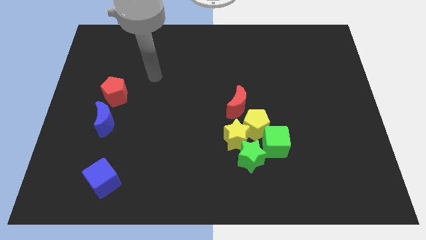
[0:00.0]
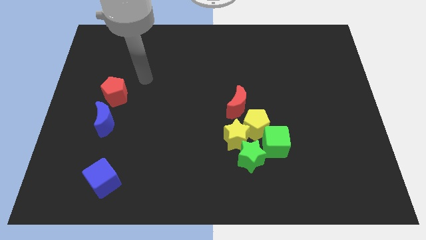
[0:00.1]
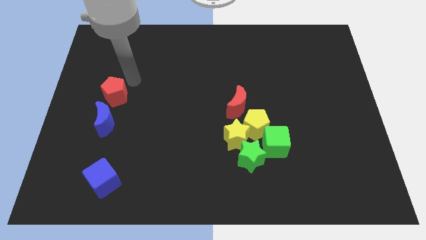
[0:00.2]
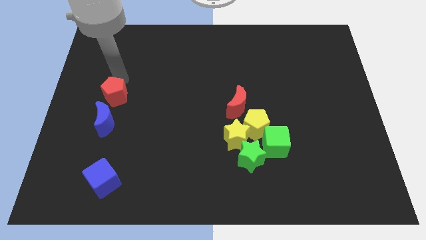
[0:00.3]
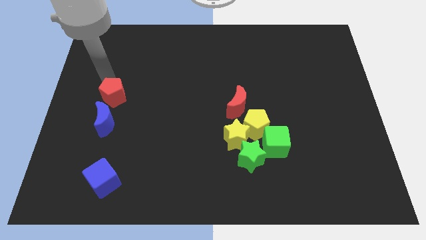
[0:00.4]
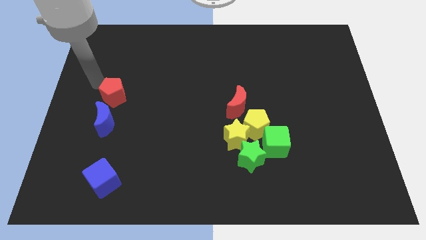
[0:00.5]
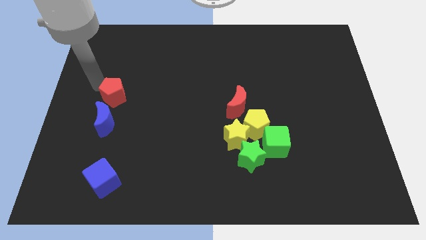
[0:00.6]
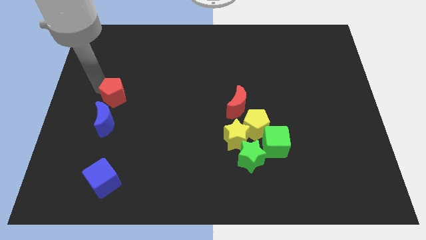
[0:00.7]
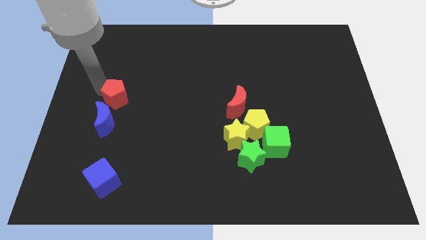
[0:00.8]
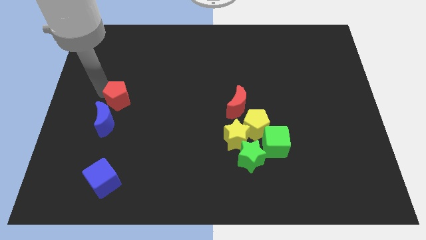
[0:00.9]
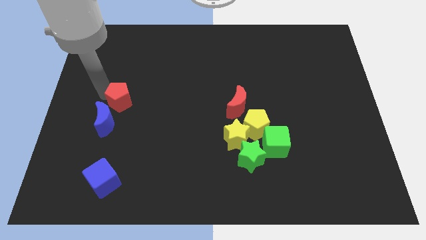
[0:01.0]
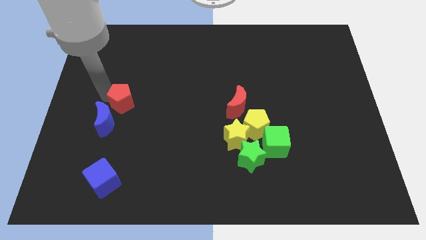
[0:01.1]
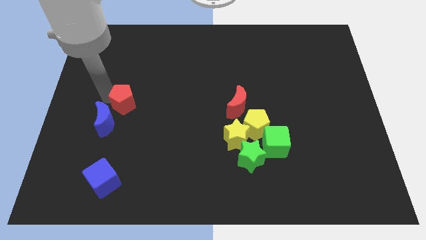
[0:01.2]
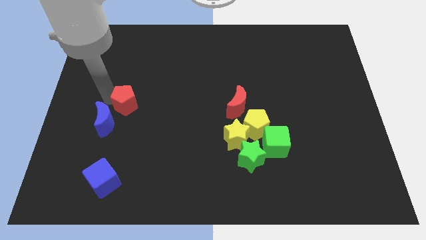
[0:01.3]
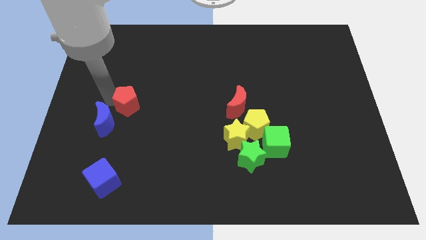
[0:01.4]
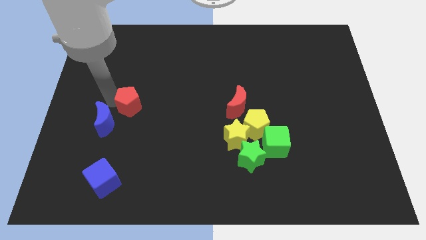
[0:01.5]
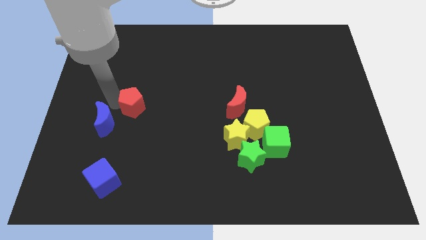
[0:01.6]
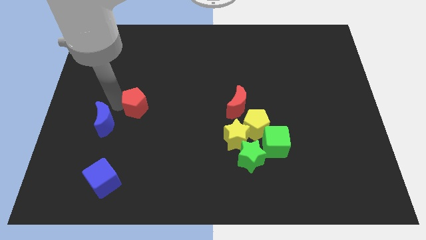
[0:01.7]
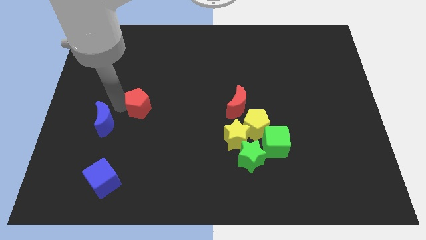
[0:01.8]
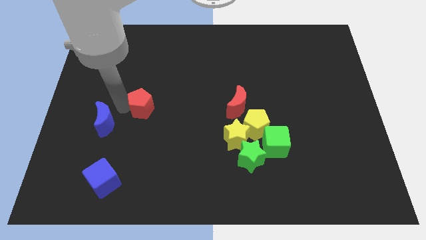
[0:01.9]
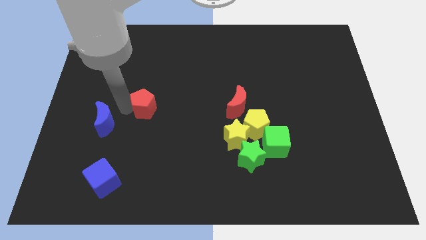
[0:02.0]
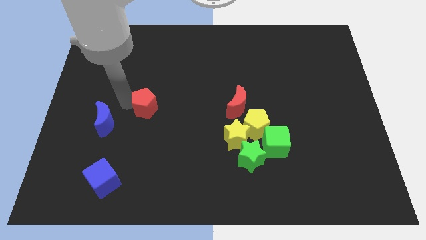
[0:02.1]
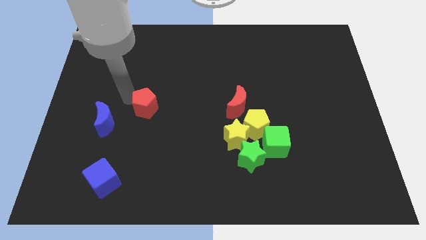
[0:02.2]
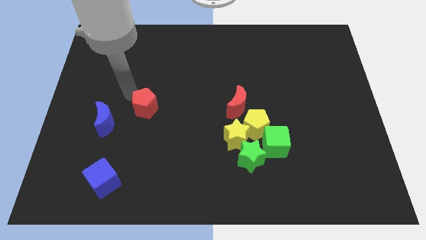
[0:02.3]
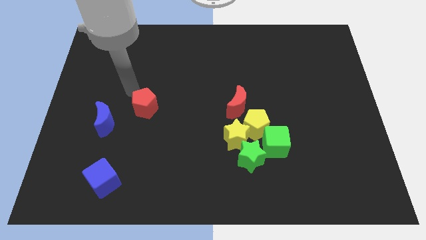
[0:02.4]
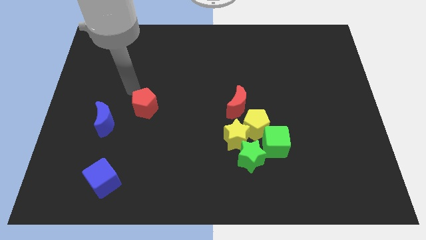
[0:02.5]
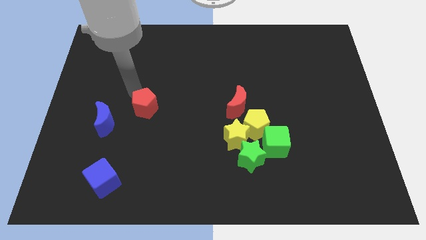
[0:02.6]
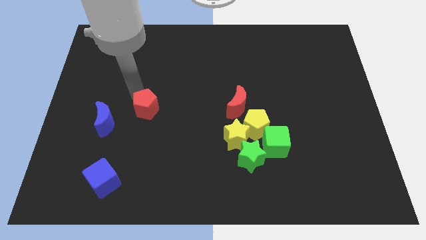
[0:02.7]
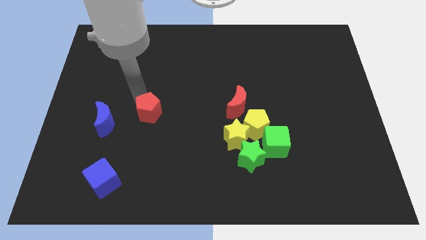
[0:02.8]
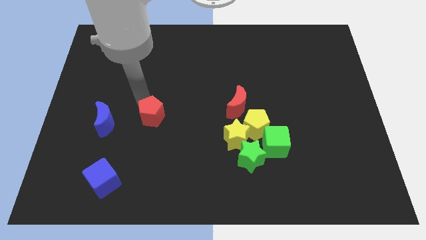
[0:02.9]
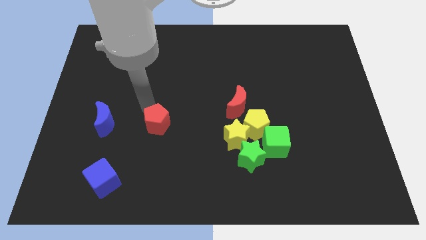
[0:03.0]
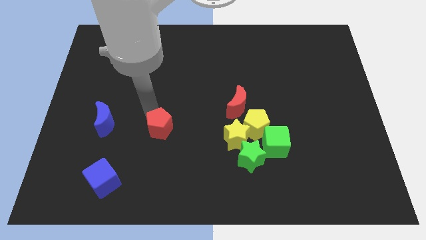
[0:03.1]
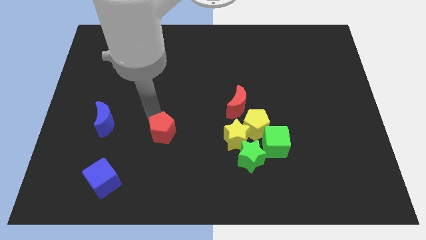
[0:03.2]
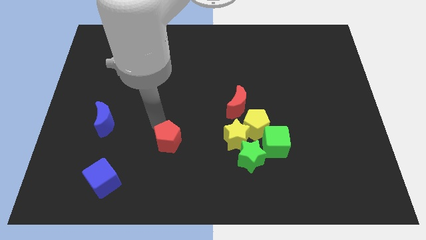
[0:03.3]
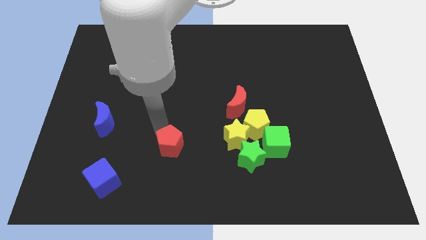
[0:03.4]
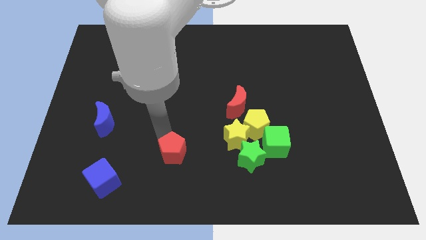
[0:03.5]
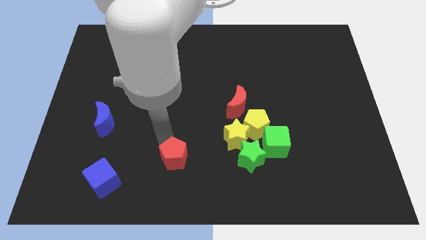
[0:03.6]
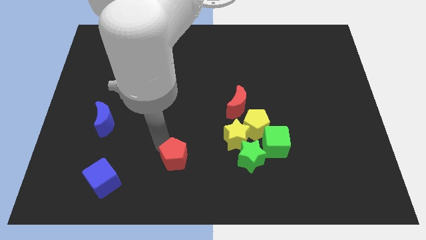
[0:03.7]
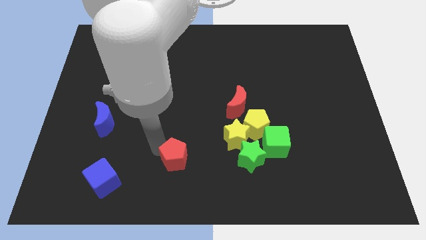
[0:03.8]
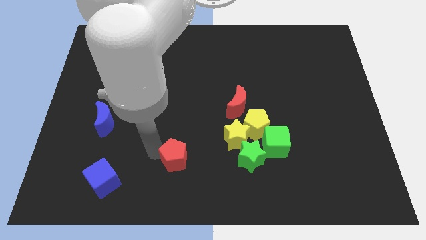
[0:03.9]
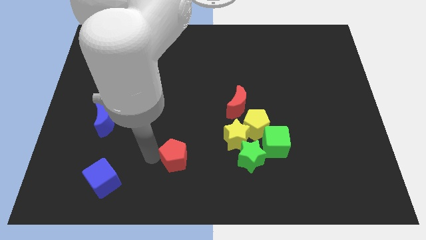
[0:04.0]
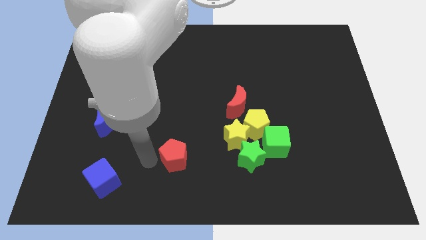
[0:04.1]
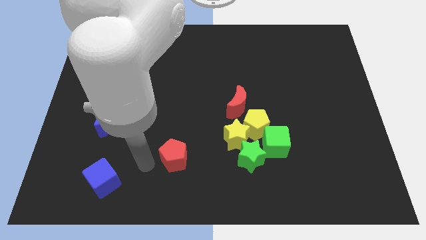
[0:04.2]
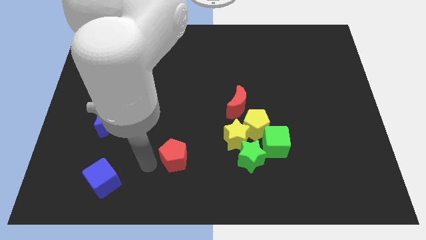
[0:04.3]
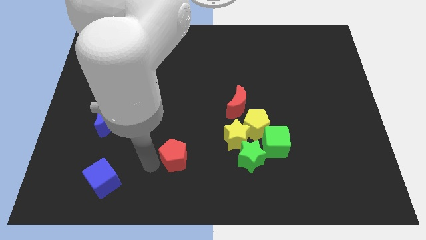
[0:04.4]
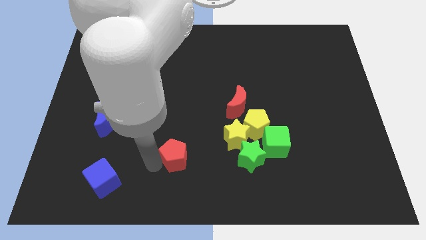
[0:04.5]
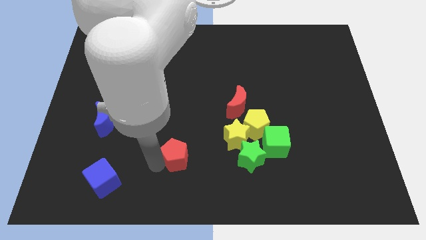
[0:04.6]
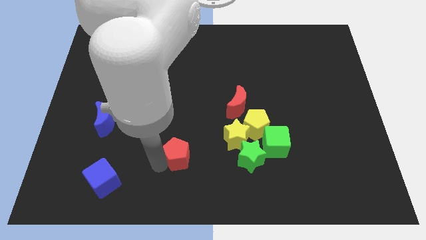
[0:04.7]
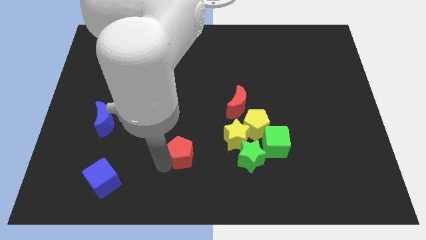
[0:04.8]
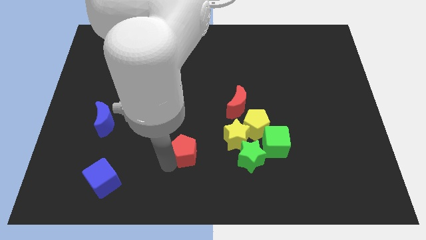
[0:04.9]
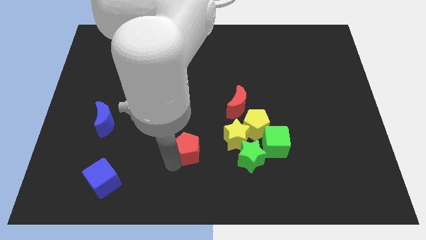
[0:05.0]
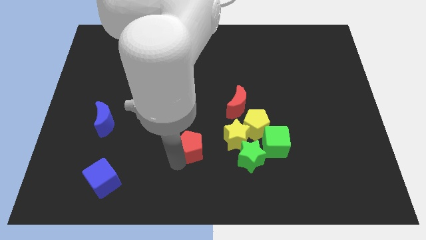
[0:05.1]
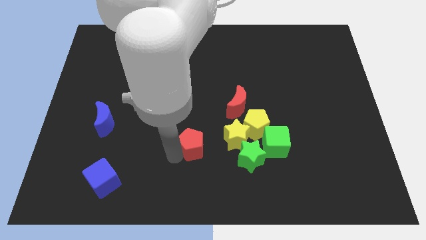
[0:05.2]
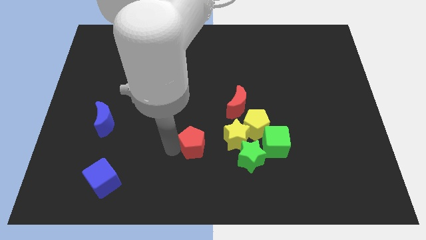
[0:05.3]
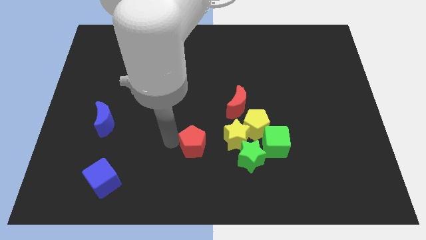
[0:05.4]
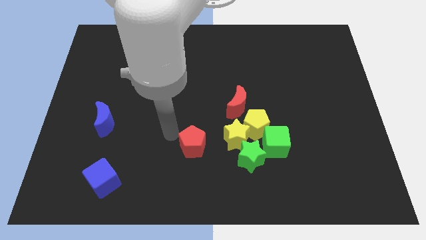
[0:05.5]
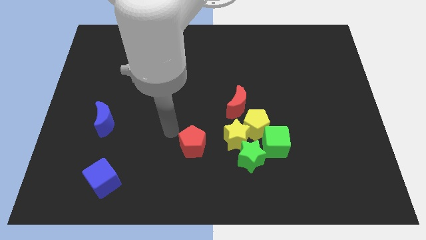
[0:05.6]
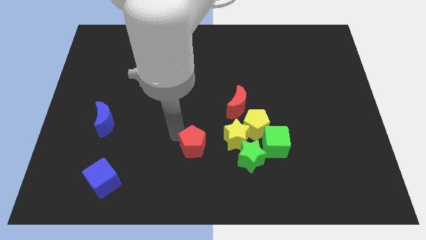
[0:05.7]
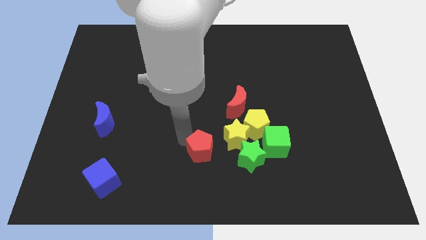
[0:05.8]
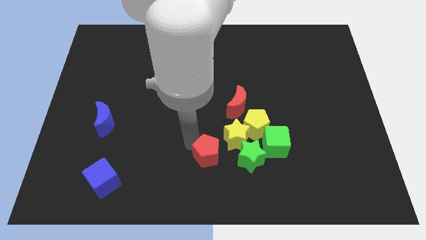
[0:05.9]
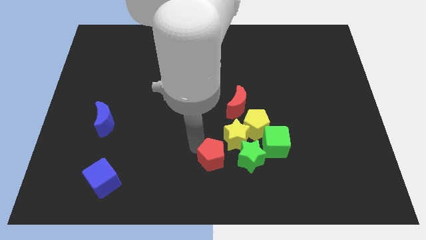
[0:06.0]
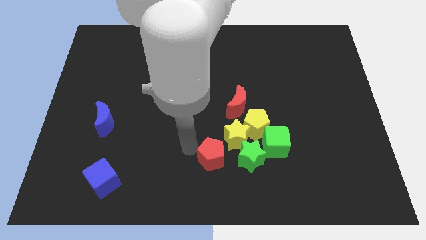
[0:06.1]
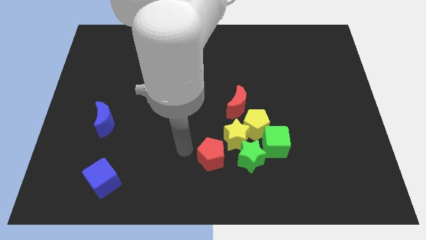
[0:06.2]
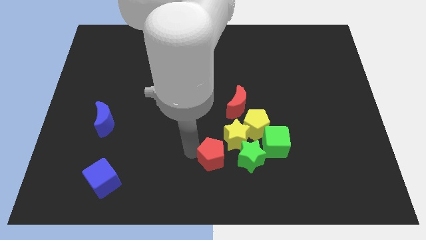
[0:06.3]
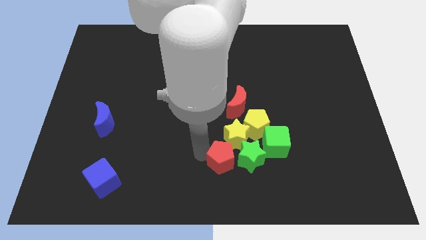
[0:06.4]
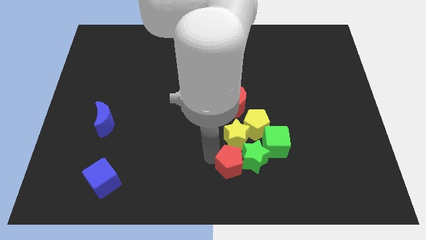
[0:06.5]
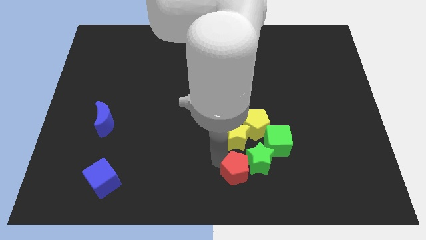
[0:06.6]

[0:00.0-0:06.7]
put the red pentagon to the bottom side of the yellow pentagon

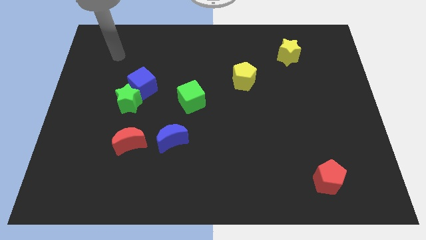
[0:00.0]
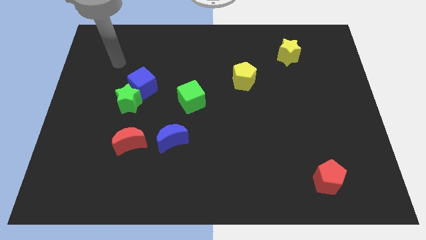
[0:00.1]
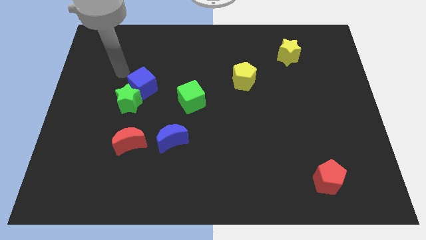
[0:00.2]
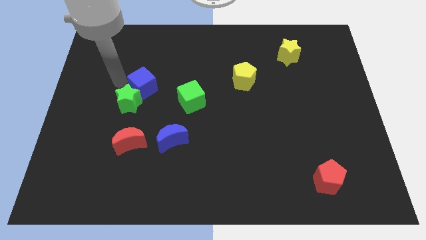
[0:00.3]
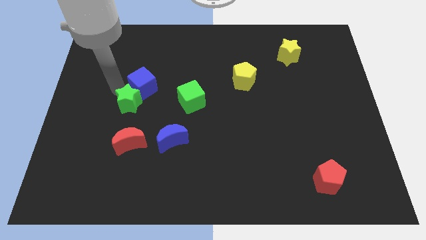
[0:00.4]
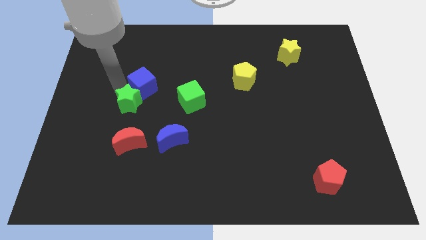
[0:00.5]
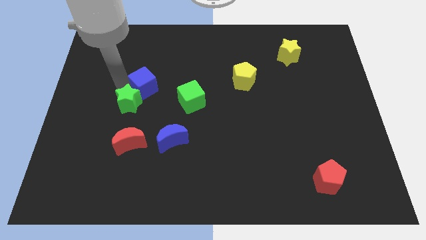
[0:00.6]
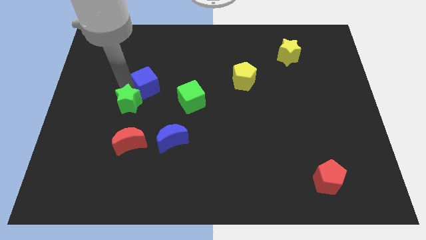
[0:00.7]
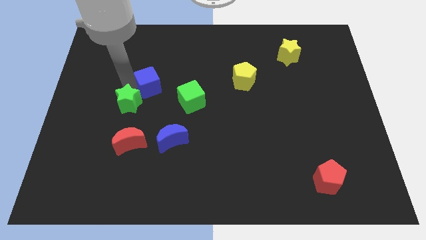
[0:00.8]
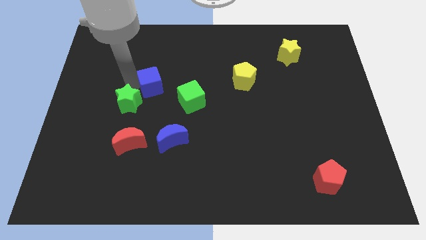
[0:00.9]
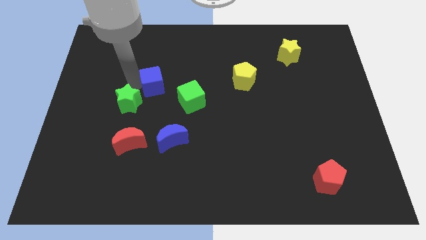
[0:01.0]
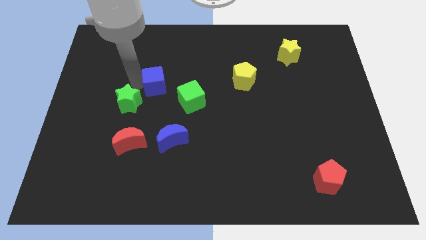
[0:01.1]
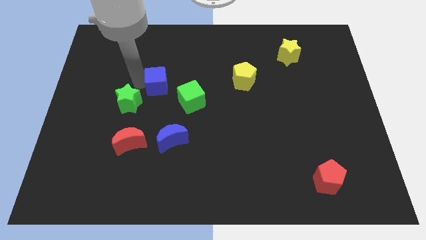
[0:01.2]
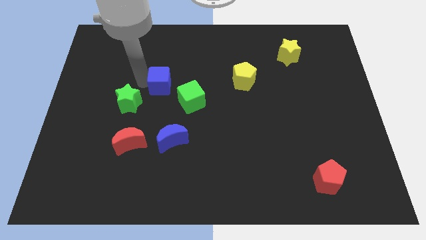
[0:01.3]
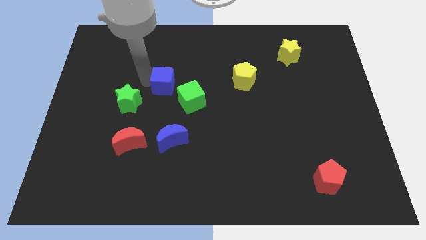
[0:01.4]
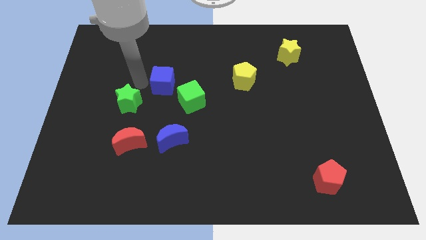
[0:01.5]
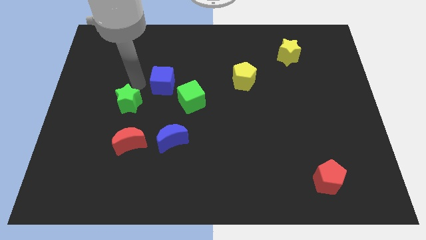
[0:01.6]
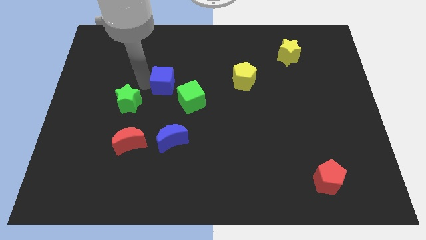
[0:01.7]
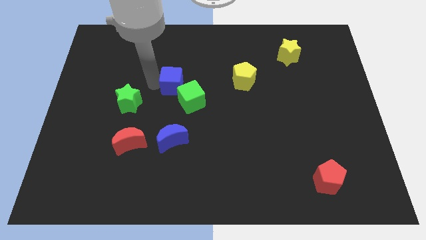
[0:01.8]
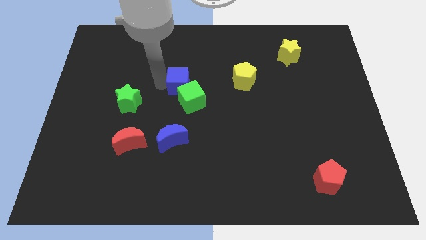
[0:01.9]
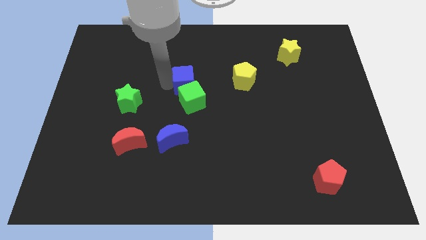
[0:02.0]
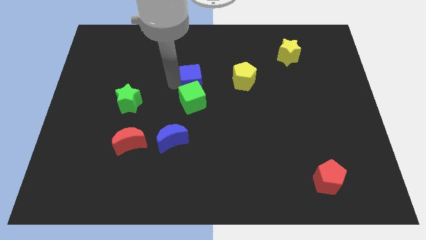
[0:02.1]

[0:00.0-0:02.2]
slide the blue cube to the top right side of the green cube
